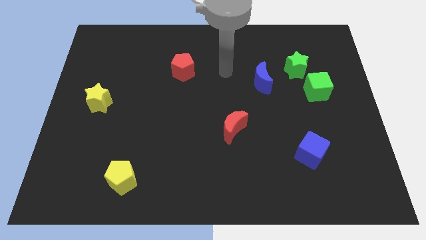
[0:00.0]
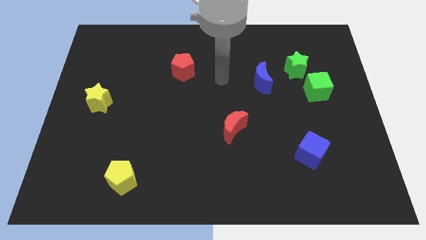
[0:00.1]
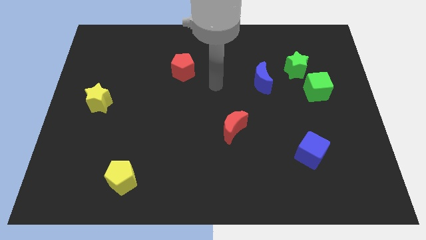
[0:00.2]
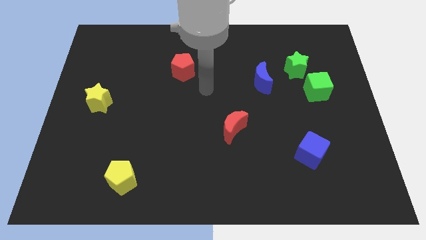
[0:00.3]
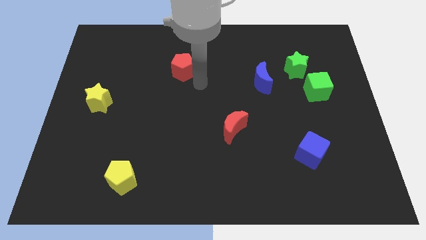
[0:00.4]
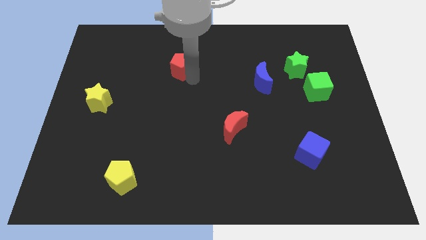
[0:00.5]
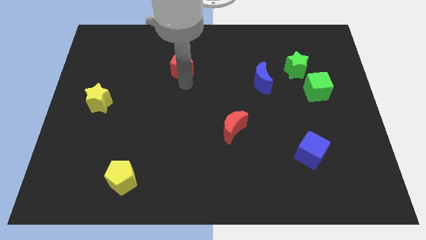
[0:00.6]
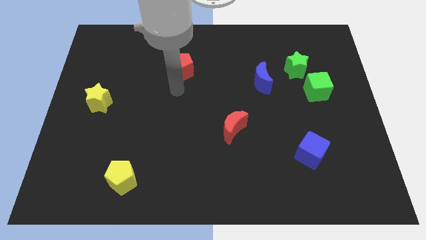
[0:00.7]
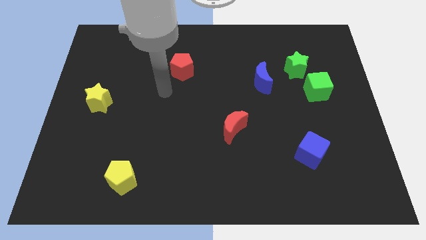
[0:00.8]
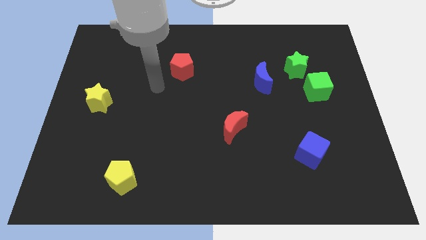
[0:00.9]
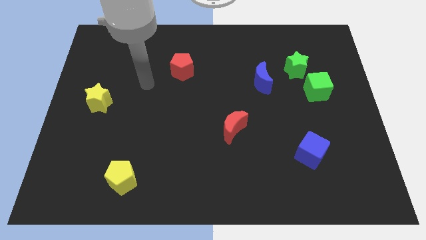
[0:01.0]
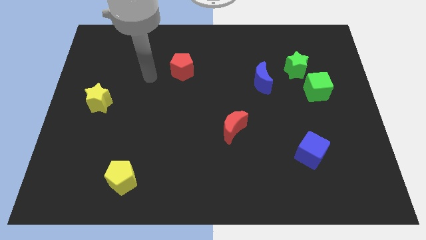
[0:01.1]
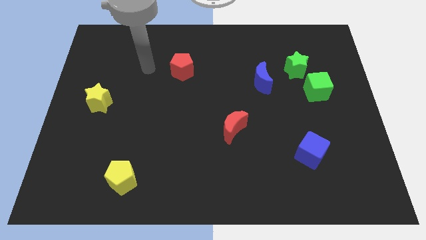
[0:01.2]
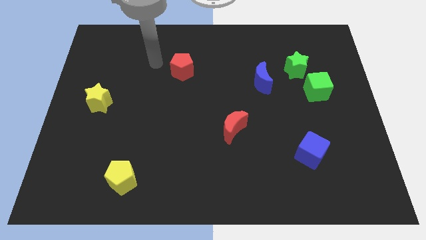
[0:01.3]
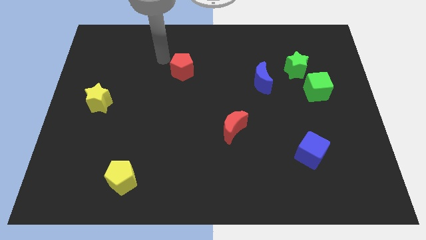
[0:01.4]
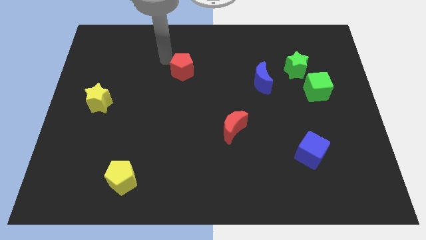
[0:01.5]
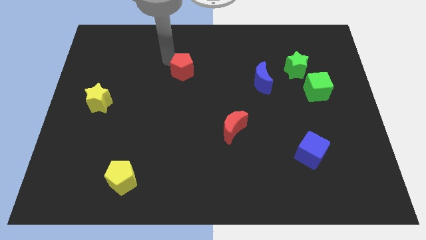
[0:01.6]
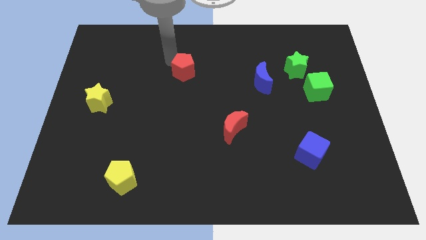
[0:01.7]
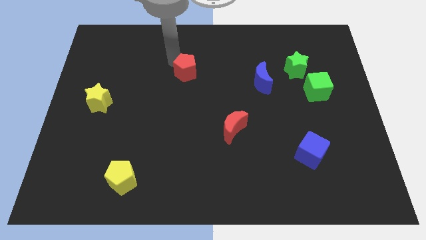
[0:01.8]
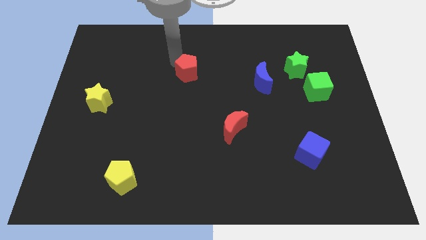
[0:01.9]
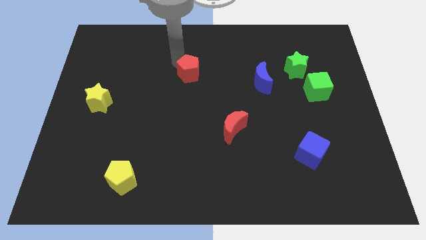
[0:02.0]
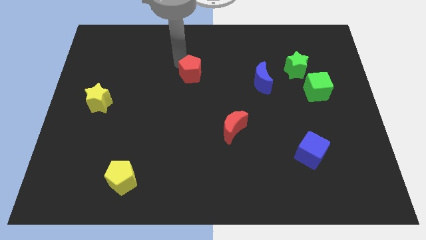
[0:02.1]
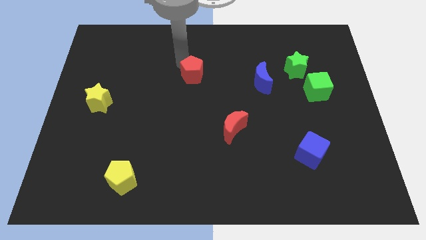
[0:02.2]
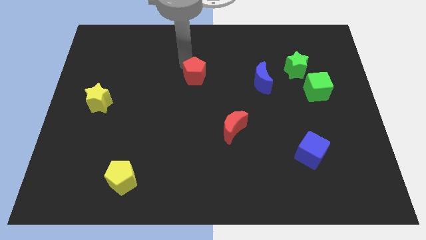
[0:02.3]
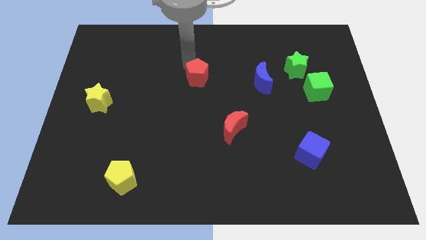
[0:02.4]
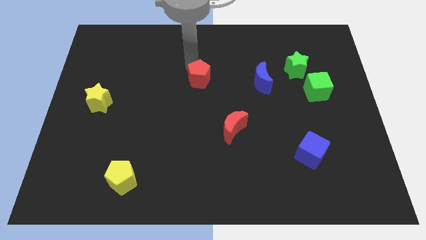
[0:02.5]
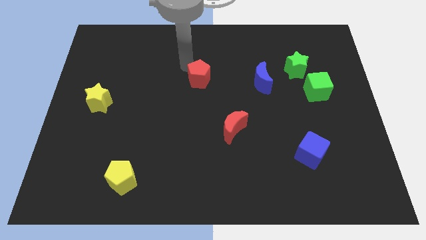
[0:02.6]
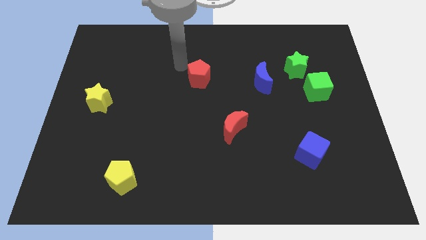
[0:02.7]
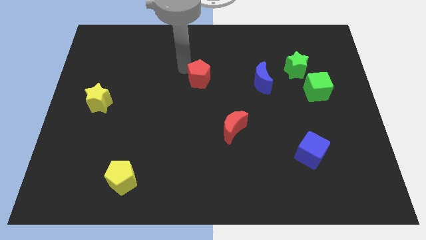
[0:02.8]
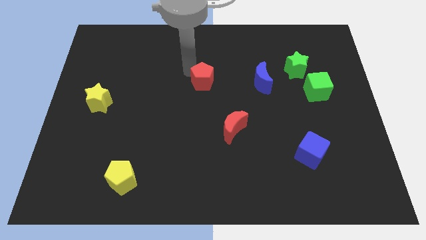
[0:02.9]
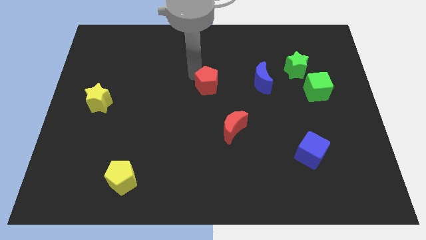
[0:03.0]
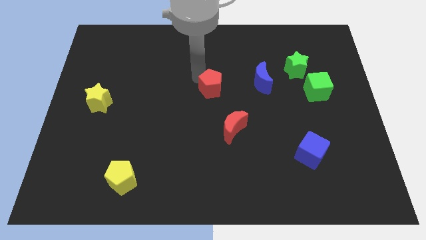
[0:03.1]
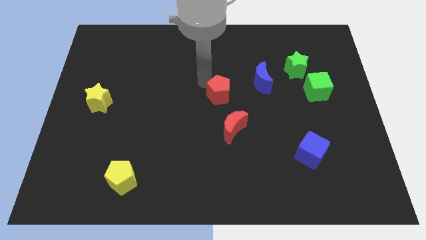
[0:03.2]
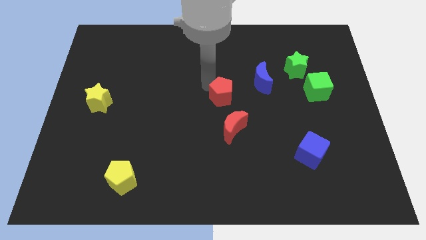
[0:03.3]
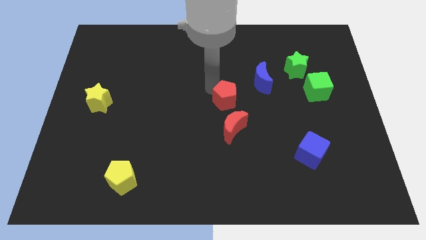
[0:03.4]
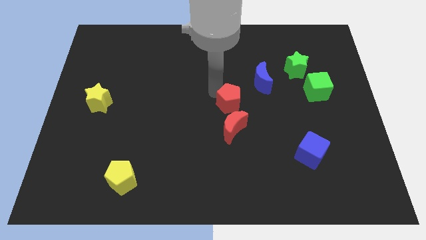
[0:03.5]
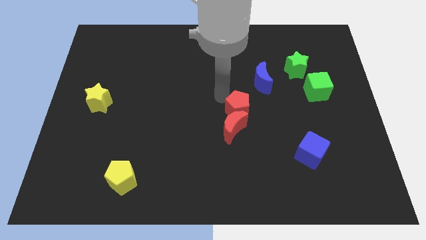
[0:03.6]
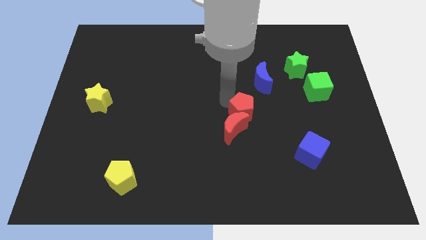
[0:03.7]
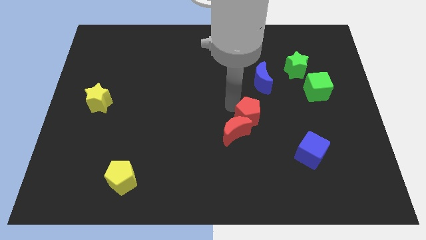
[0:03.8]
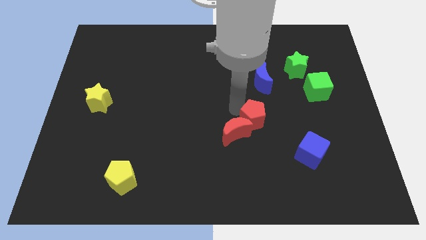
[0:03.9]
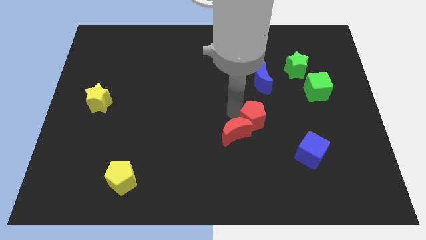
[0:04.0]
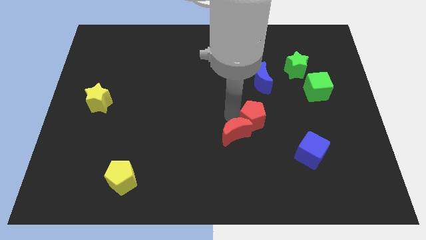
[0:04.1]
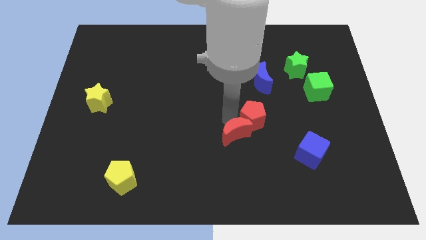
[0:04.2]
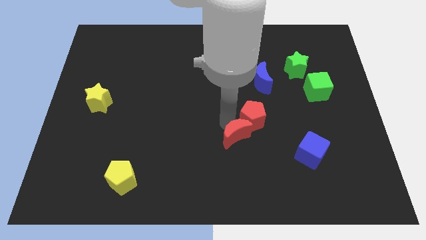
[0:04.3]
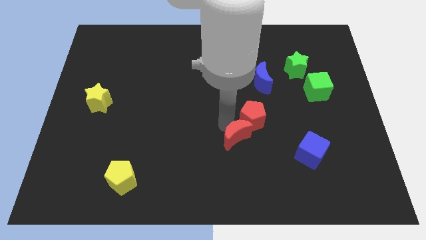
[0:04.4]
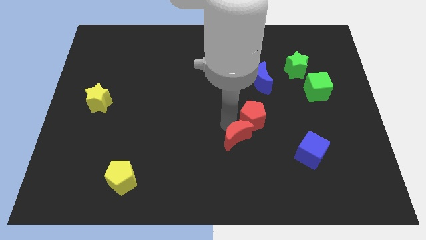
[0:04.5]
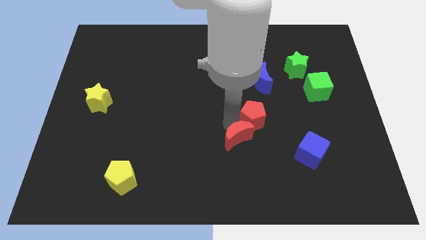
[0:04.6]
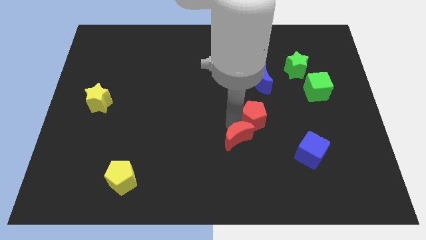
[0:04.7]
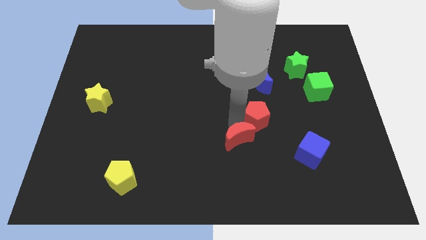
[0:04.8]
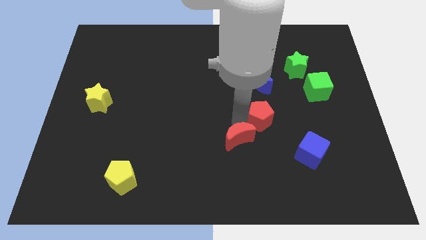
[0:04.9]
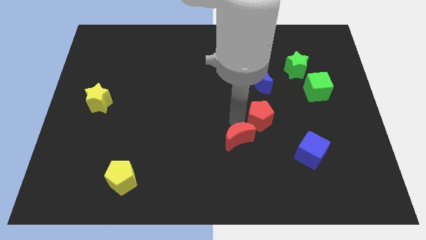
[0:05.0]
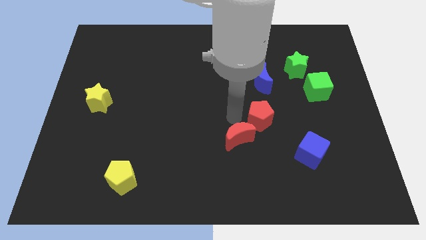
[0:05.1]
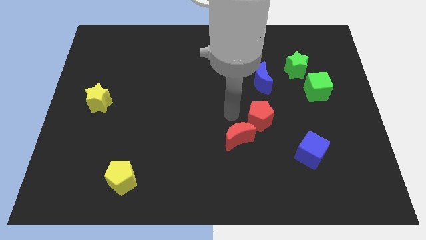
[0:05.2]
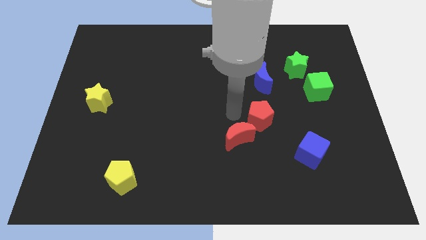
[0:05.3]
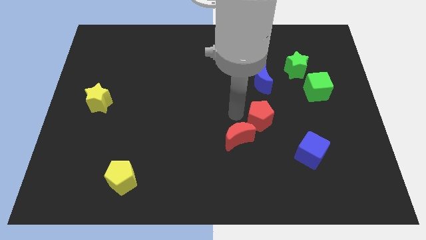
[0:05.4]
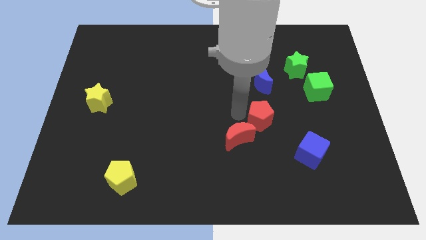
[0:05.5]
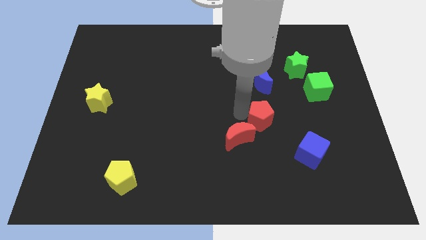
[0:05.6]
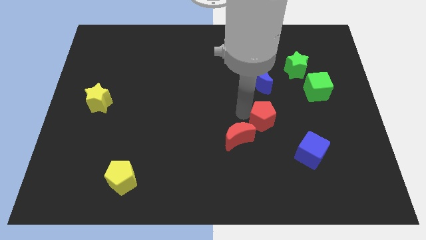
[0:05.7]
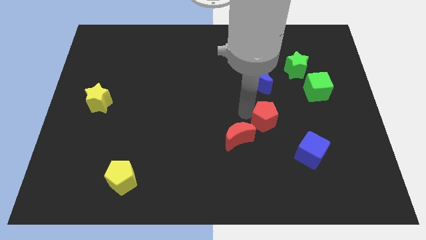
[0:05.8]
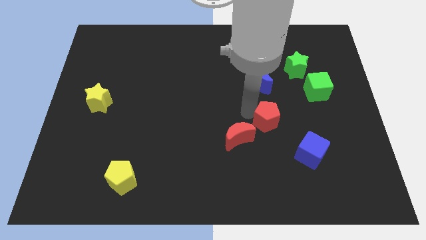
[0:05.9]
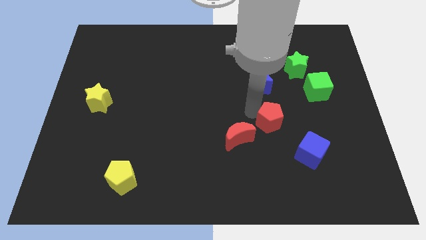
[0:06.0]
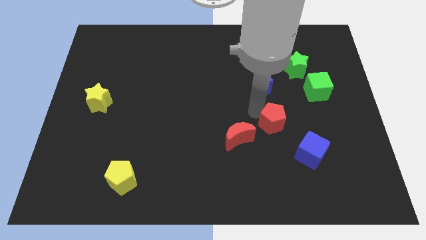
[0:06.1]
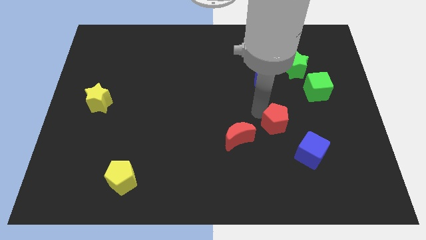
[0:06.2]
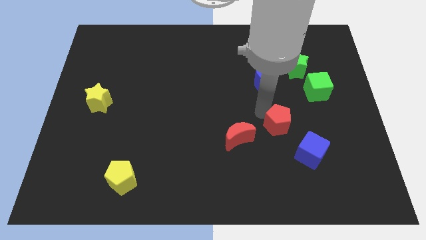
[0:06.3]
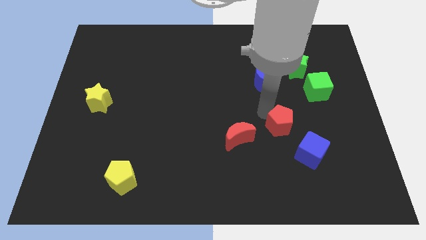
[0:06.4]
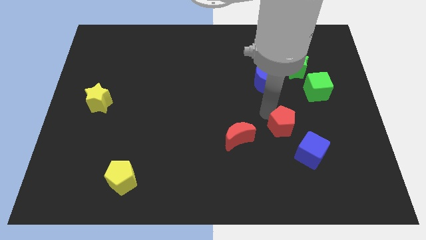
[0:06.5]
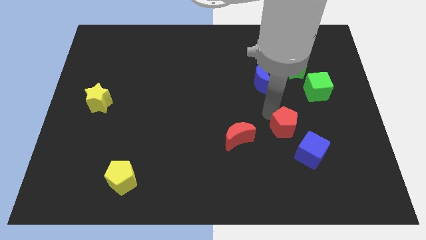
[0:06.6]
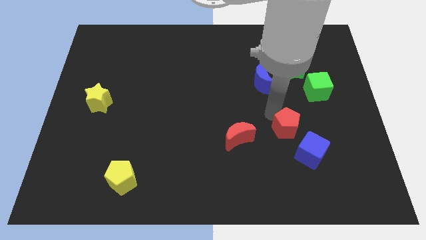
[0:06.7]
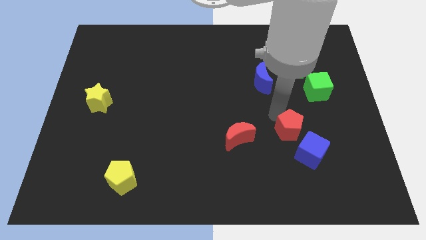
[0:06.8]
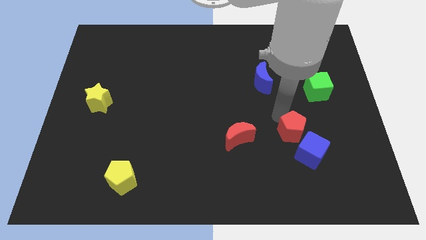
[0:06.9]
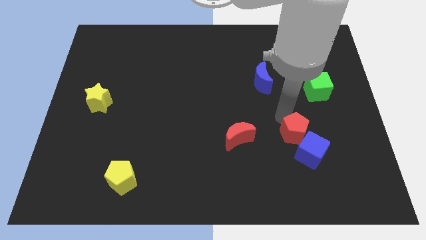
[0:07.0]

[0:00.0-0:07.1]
put the red pentagon next to the blue cube

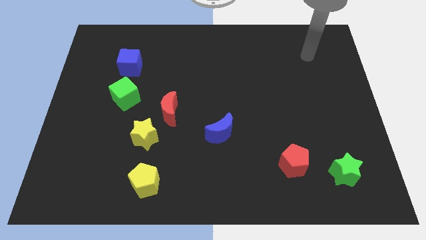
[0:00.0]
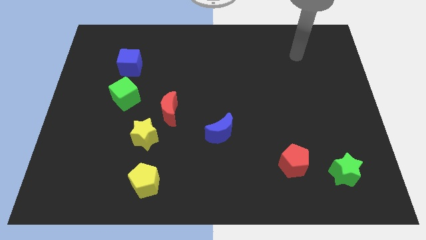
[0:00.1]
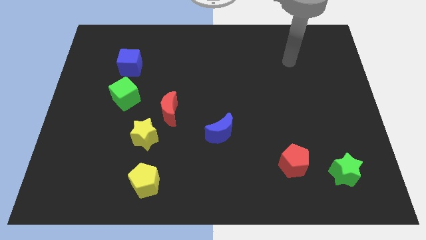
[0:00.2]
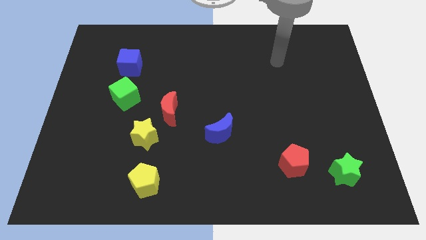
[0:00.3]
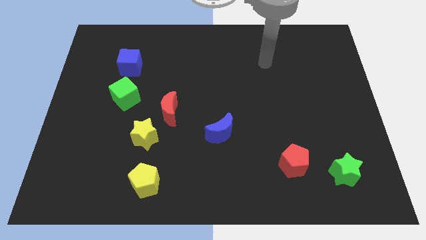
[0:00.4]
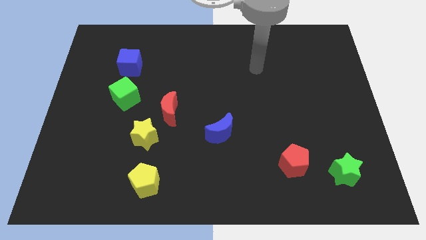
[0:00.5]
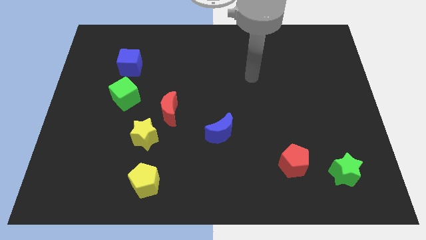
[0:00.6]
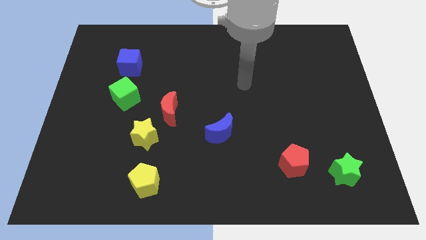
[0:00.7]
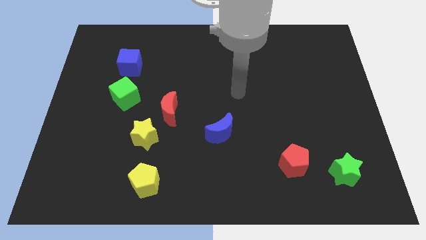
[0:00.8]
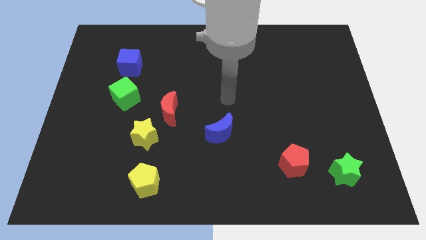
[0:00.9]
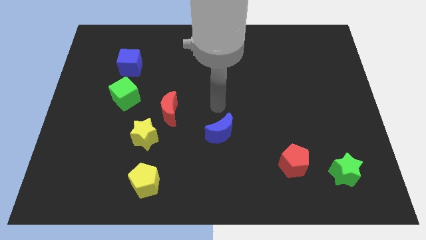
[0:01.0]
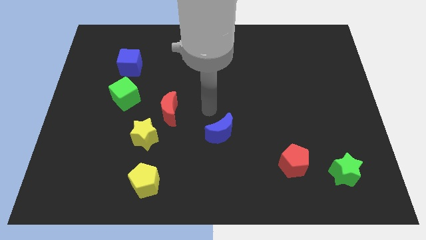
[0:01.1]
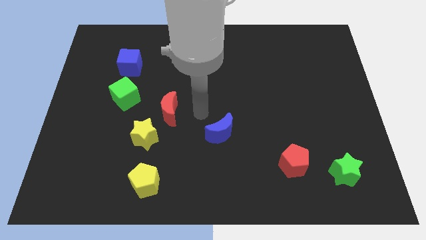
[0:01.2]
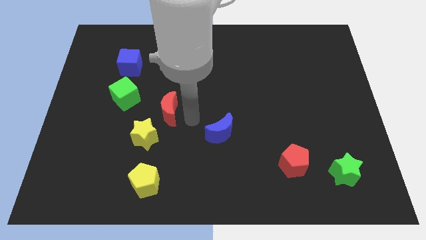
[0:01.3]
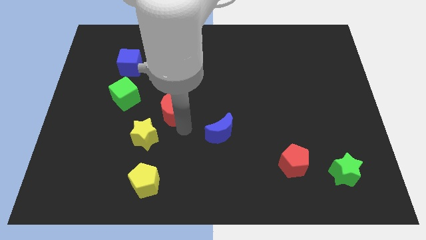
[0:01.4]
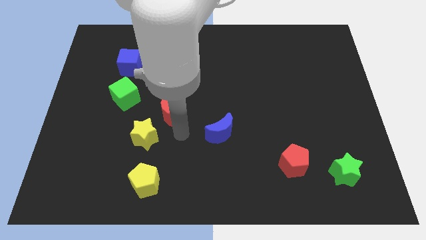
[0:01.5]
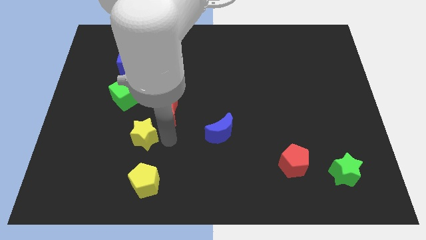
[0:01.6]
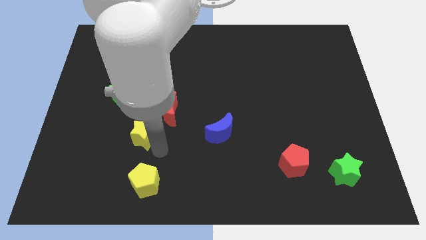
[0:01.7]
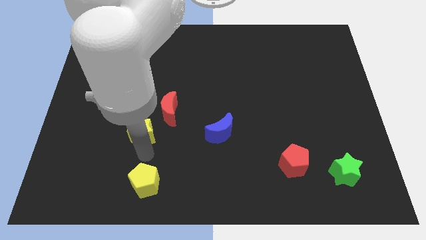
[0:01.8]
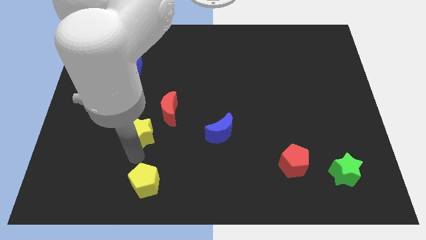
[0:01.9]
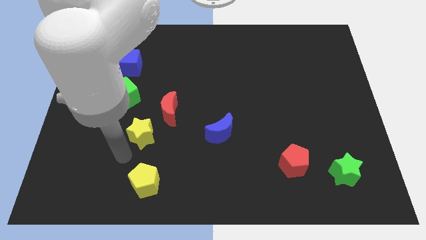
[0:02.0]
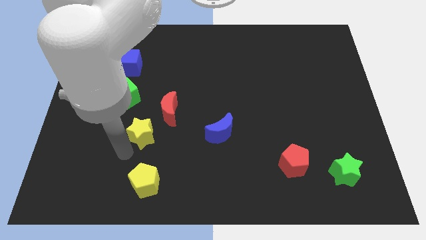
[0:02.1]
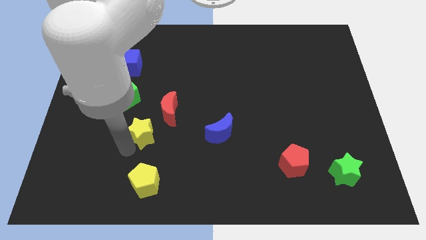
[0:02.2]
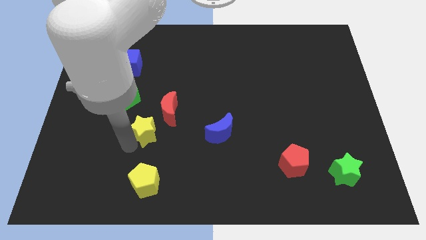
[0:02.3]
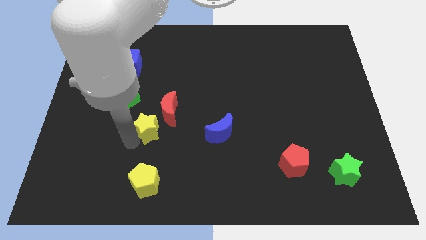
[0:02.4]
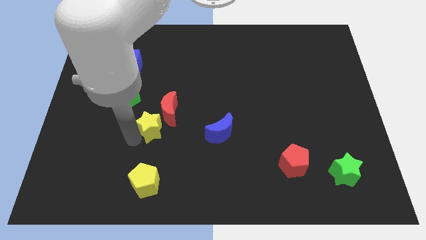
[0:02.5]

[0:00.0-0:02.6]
push the yellow star towards the red moon
